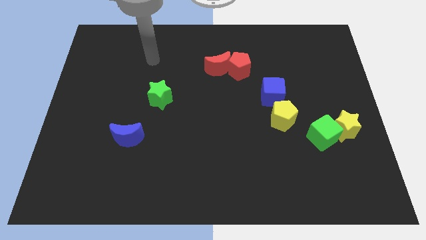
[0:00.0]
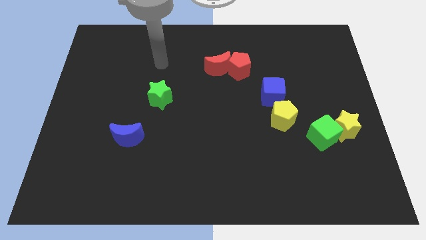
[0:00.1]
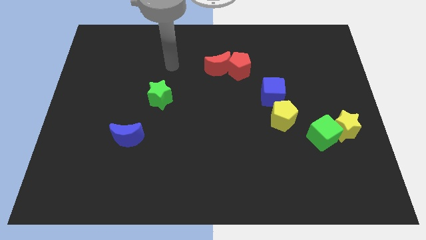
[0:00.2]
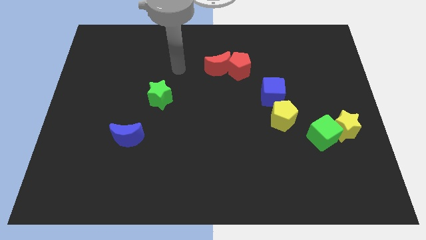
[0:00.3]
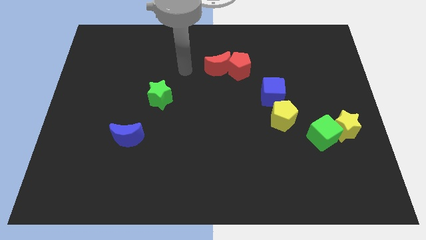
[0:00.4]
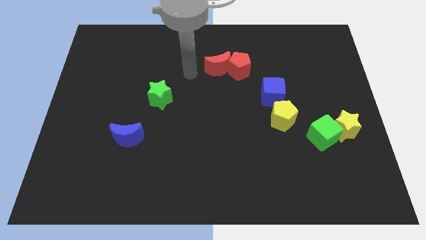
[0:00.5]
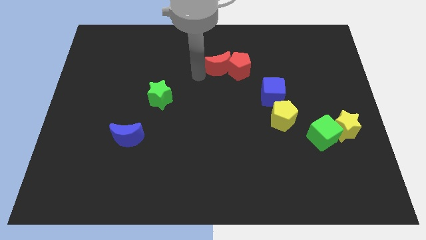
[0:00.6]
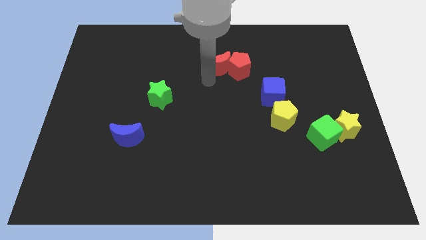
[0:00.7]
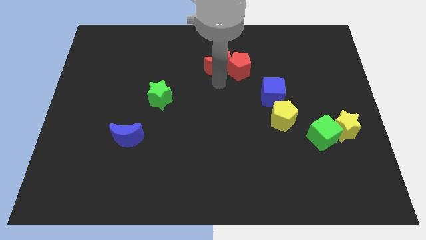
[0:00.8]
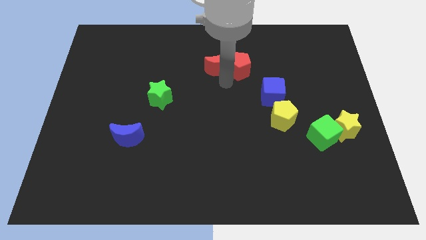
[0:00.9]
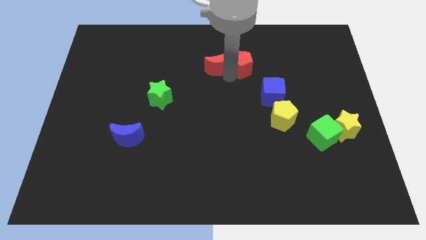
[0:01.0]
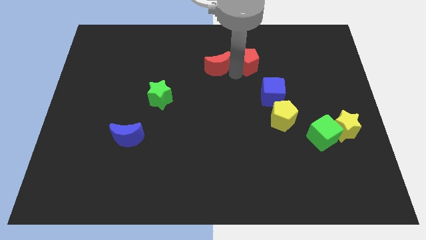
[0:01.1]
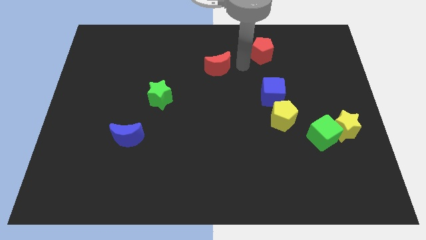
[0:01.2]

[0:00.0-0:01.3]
move the red moon away from the red pentagon

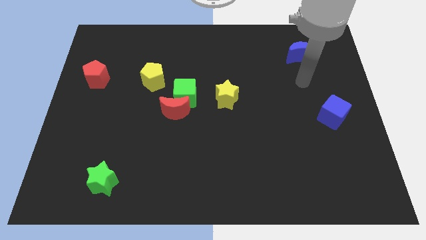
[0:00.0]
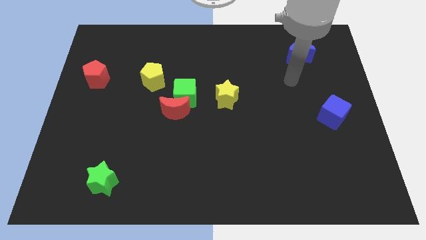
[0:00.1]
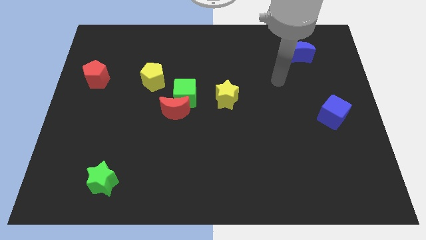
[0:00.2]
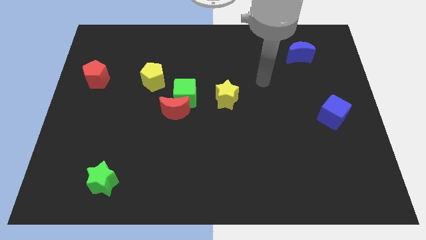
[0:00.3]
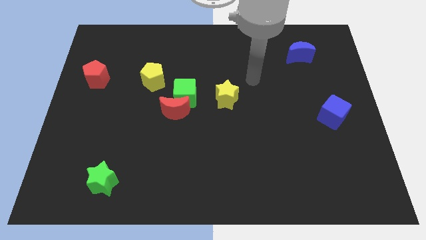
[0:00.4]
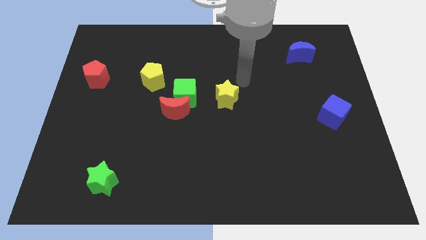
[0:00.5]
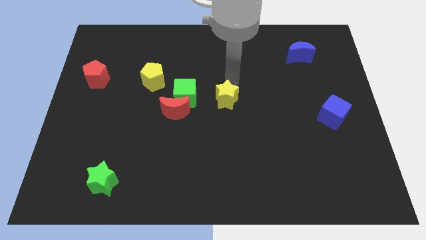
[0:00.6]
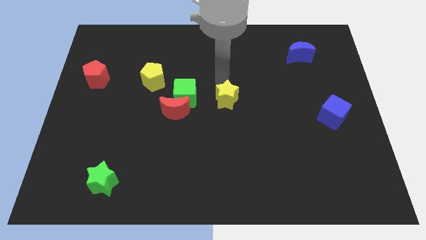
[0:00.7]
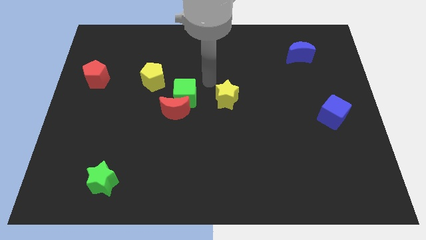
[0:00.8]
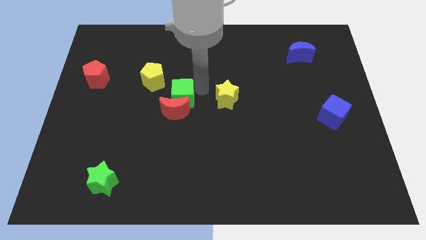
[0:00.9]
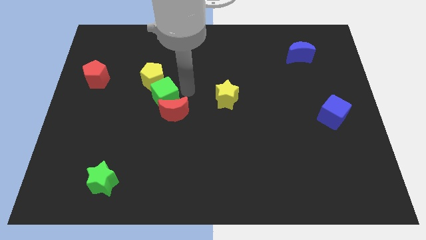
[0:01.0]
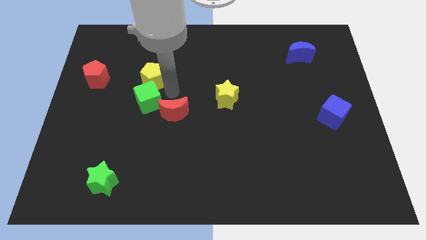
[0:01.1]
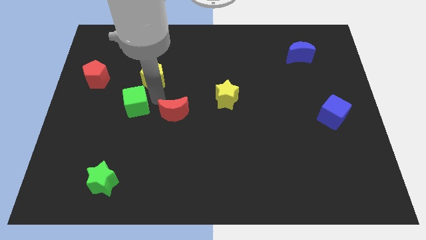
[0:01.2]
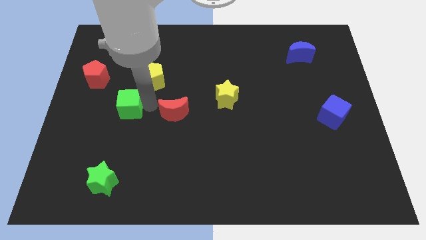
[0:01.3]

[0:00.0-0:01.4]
pull the red moon apart from the green cube

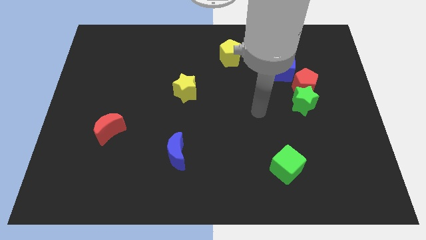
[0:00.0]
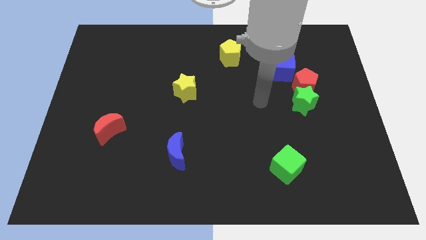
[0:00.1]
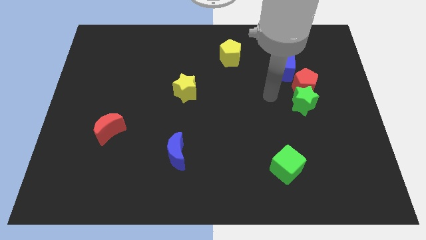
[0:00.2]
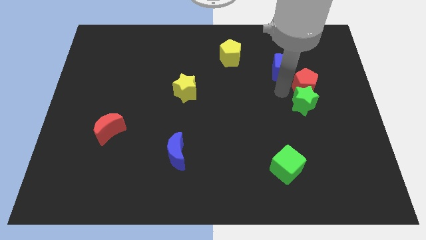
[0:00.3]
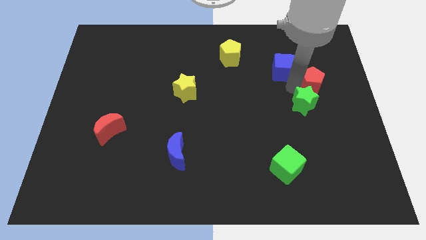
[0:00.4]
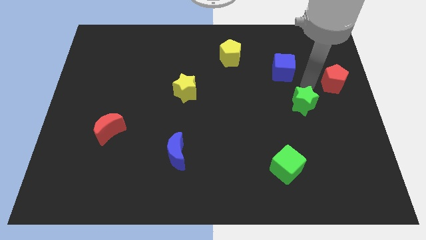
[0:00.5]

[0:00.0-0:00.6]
separate the green star from the red pentagon

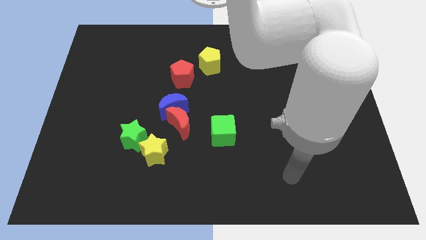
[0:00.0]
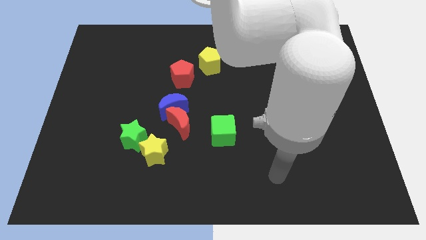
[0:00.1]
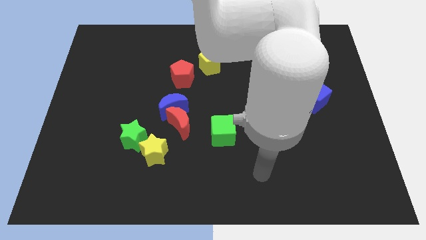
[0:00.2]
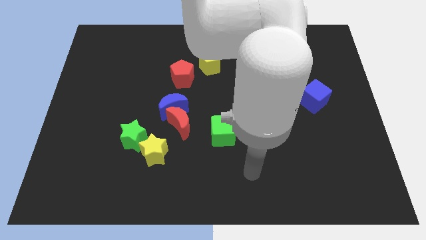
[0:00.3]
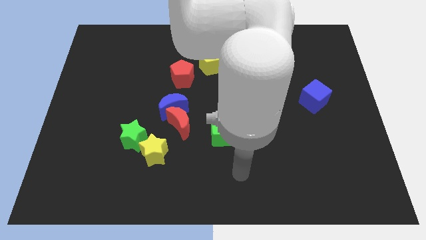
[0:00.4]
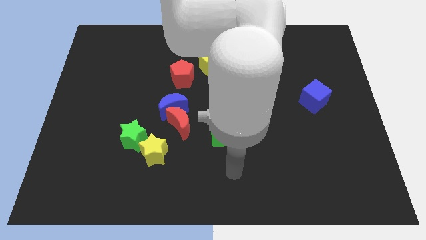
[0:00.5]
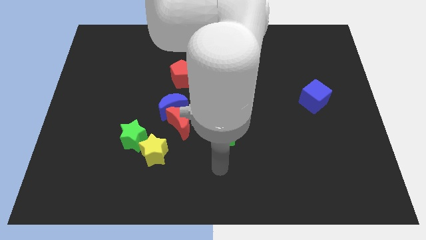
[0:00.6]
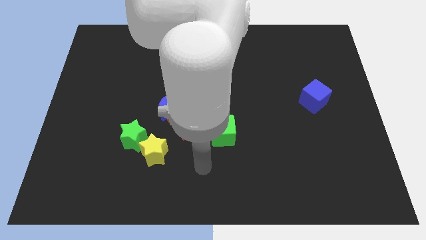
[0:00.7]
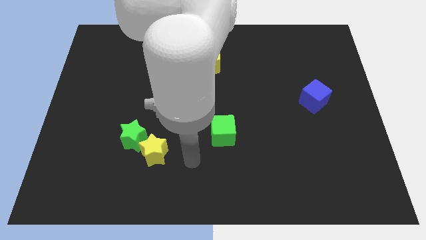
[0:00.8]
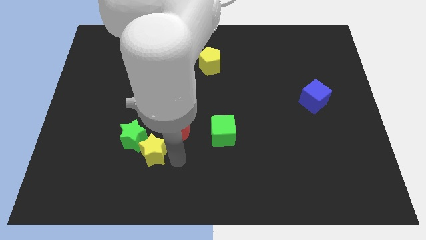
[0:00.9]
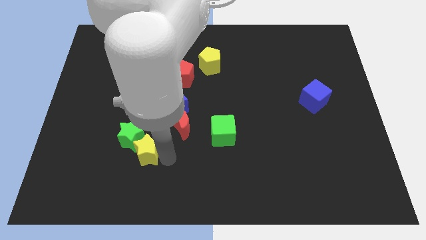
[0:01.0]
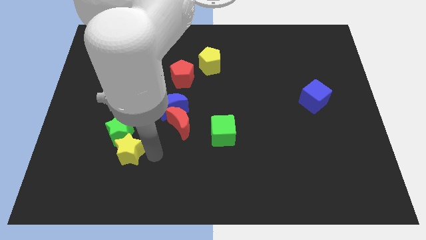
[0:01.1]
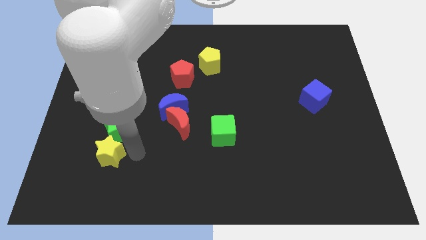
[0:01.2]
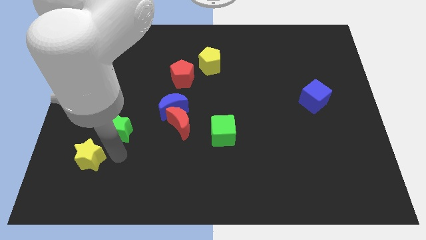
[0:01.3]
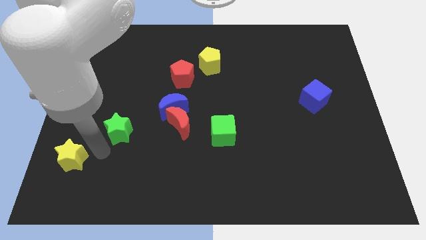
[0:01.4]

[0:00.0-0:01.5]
move the green star away from the yellow star

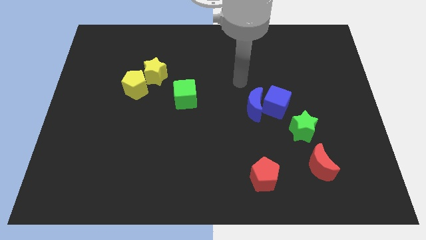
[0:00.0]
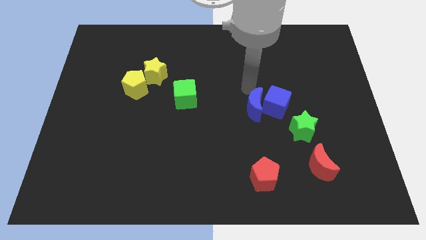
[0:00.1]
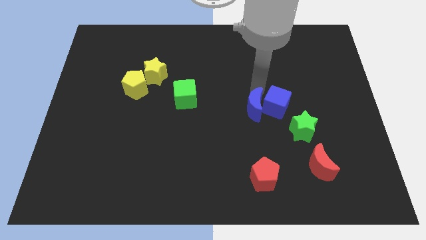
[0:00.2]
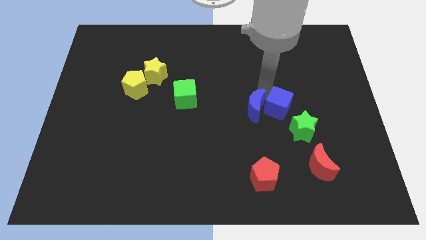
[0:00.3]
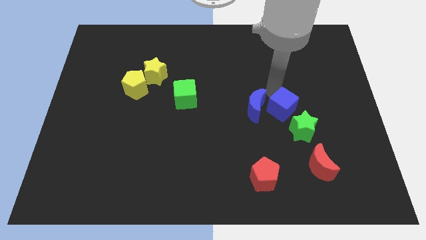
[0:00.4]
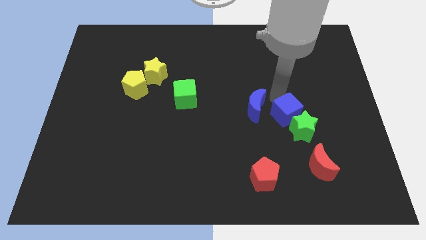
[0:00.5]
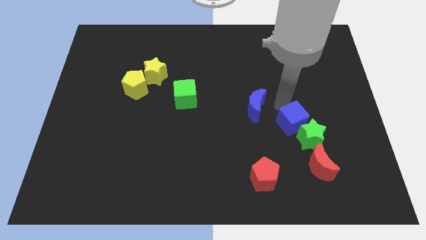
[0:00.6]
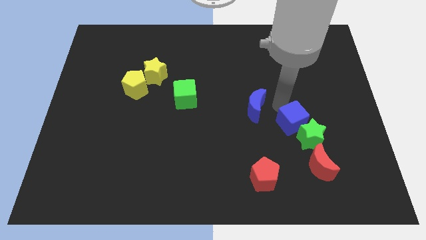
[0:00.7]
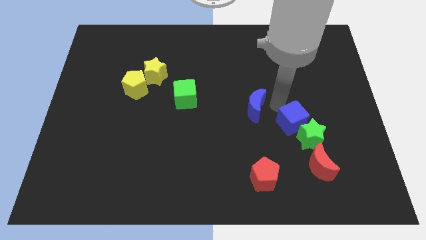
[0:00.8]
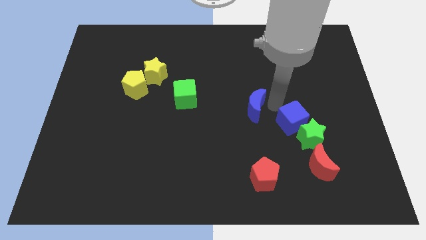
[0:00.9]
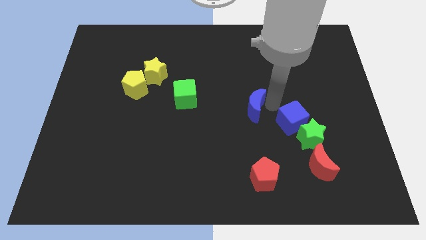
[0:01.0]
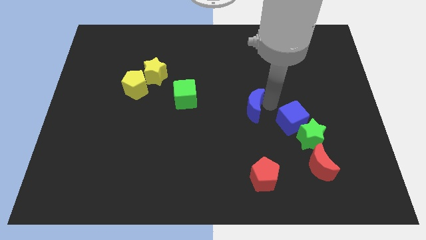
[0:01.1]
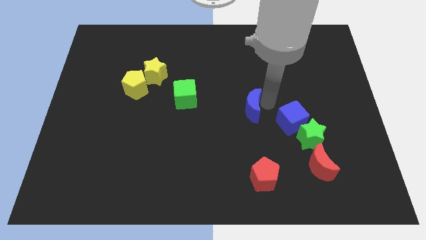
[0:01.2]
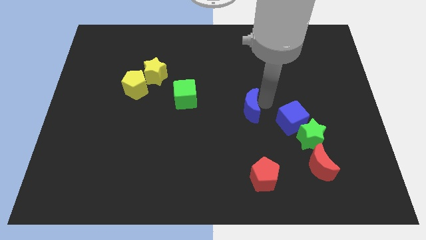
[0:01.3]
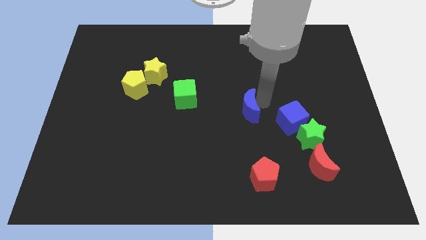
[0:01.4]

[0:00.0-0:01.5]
move the blue moon away from the blue cube

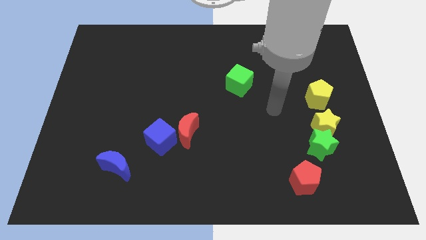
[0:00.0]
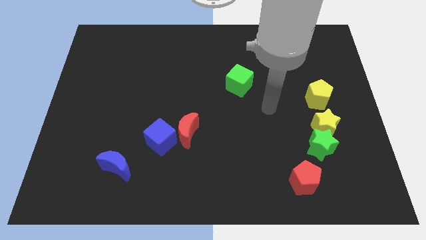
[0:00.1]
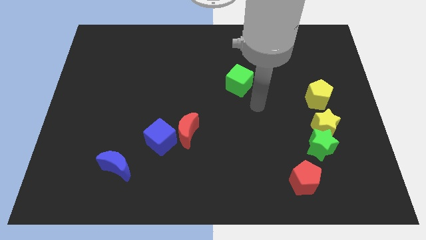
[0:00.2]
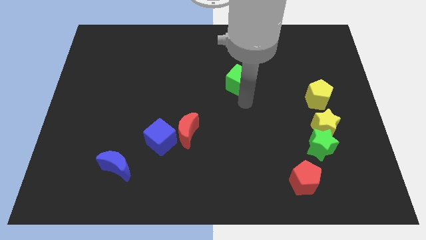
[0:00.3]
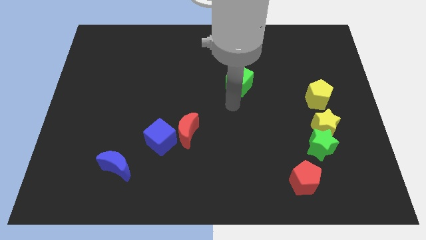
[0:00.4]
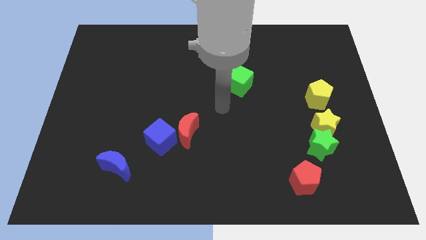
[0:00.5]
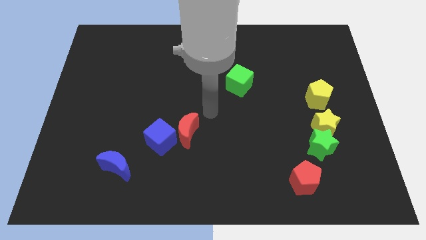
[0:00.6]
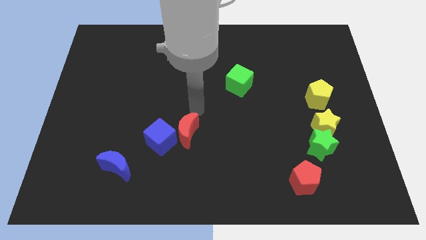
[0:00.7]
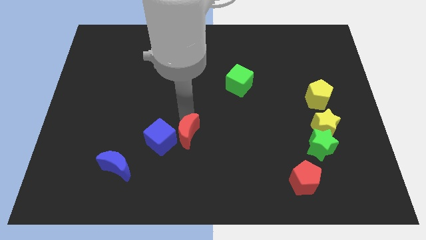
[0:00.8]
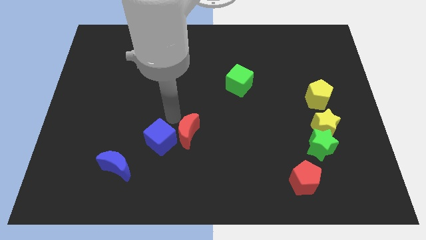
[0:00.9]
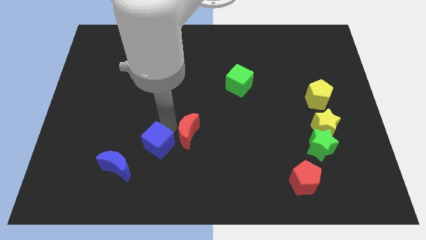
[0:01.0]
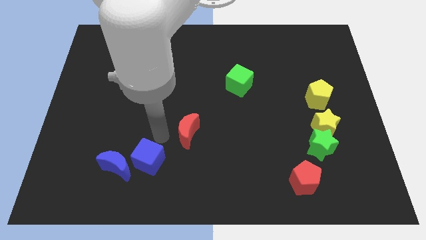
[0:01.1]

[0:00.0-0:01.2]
move the red moon away from the blue cube

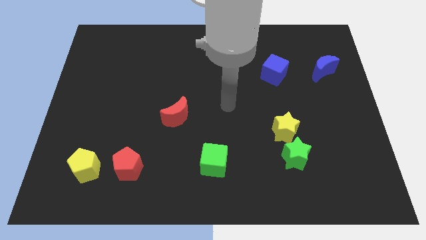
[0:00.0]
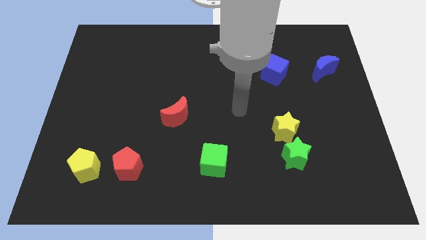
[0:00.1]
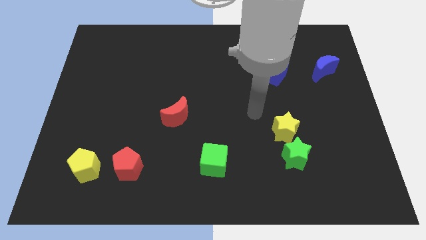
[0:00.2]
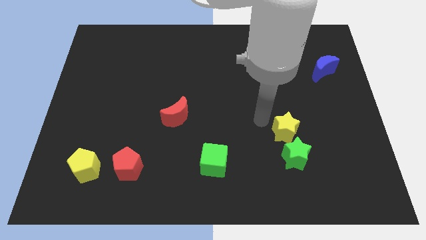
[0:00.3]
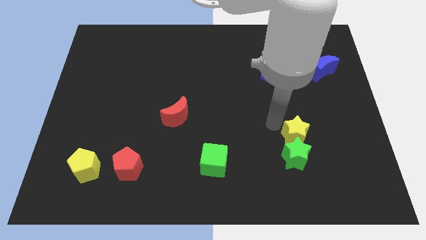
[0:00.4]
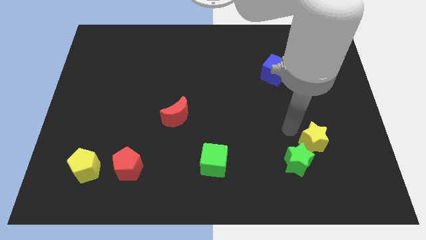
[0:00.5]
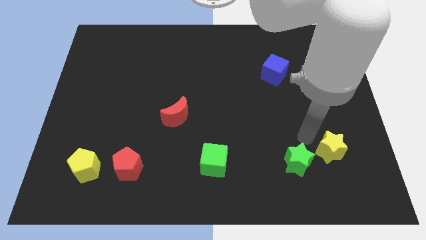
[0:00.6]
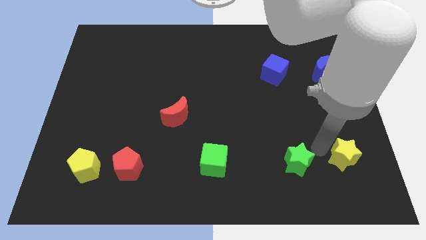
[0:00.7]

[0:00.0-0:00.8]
separate the green star from the yellow star

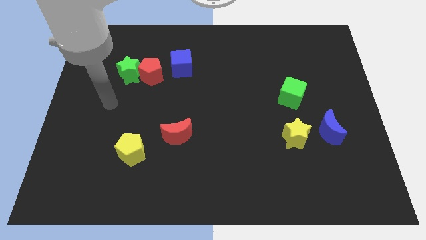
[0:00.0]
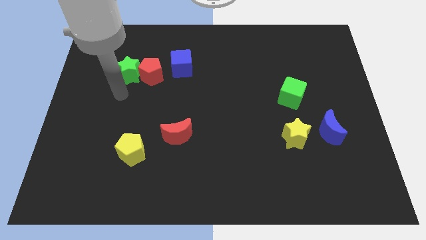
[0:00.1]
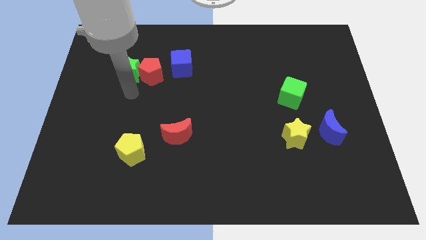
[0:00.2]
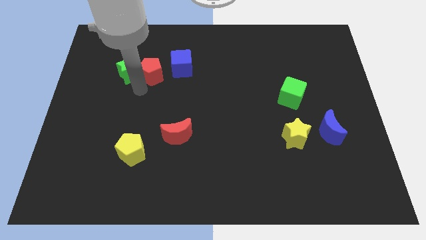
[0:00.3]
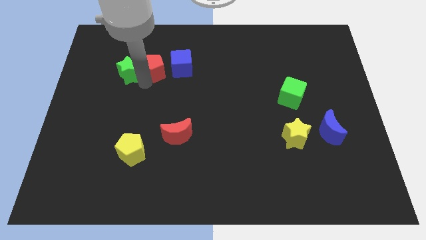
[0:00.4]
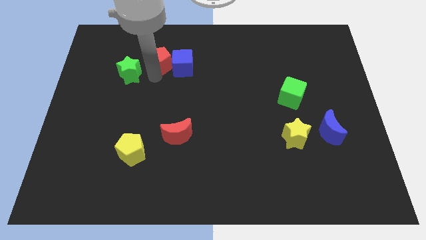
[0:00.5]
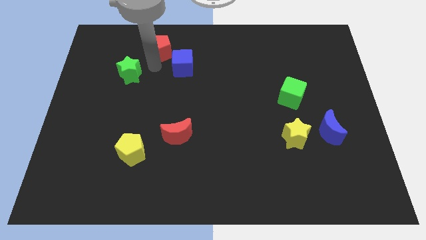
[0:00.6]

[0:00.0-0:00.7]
pull the green star apart from the red pentagon

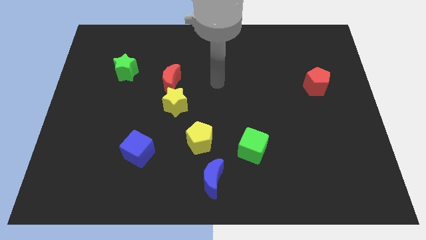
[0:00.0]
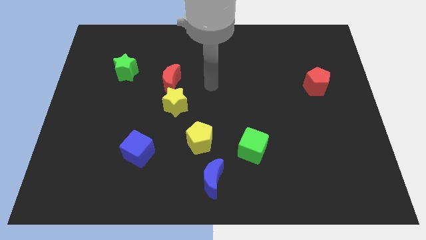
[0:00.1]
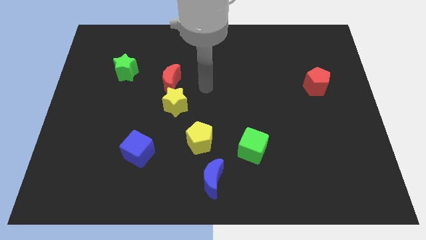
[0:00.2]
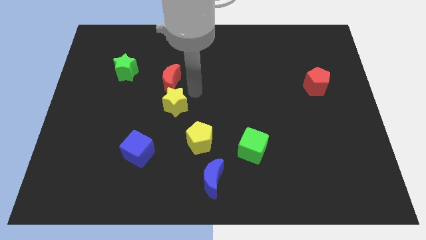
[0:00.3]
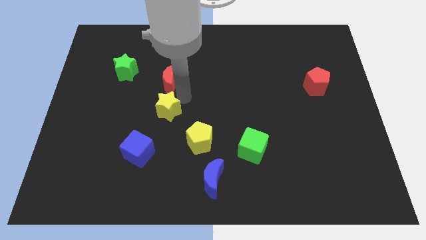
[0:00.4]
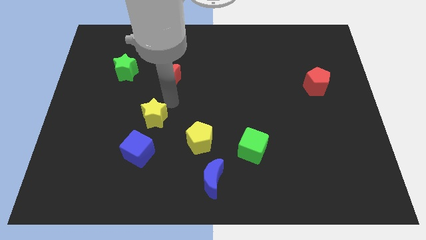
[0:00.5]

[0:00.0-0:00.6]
separate the red moon from the yellow star
